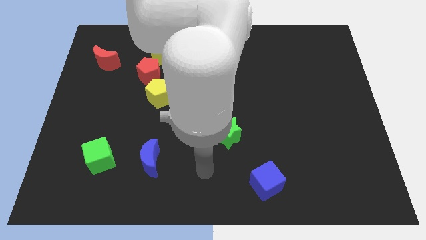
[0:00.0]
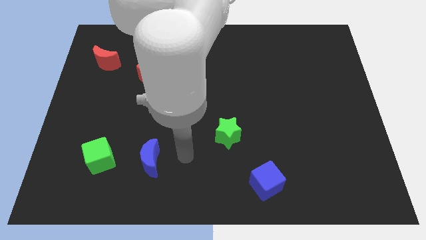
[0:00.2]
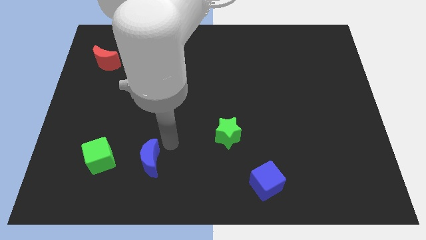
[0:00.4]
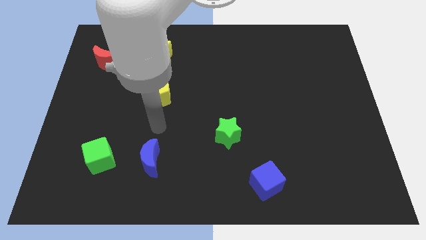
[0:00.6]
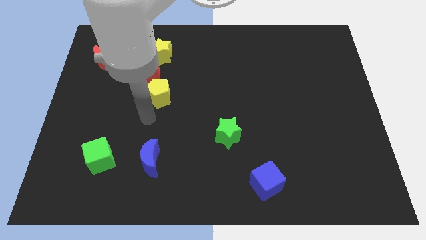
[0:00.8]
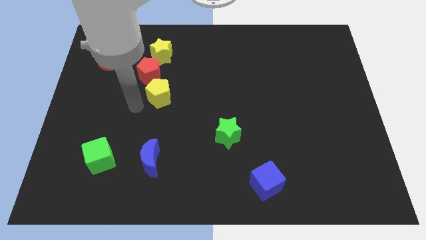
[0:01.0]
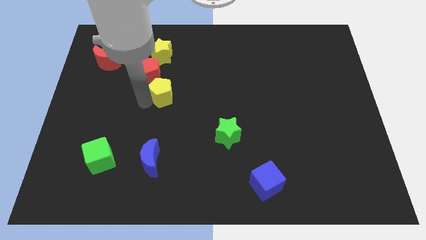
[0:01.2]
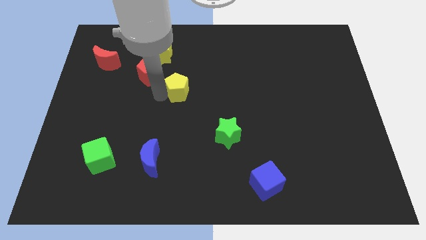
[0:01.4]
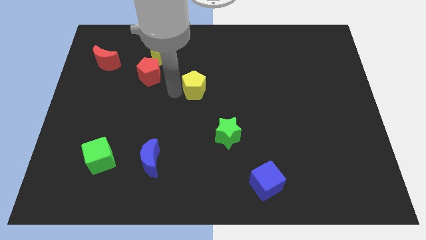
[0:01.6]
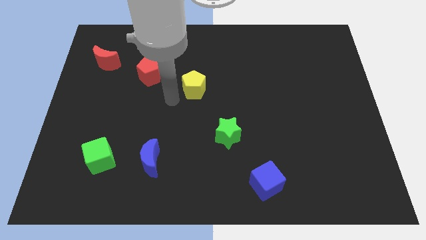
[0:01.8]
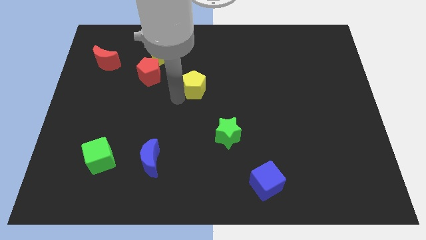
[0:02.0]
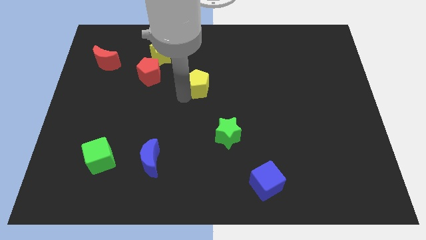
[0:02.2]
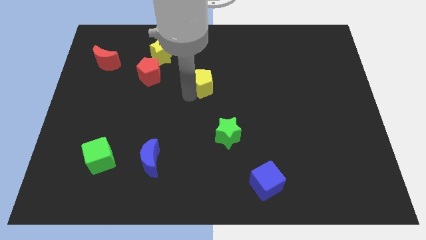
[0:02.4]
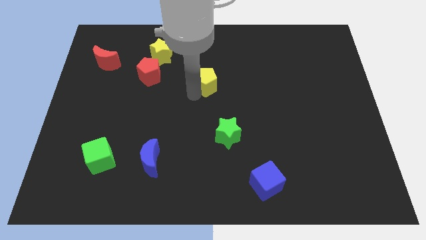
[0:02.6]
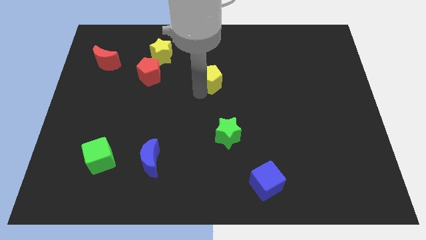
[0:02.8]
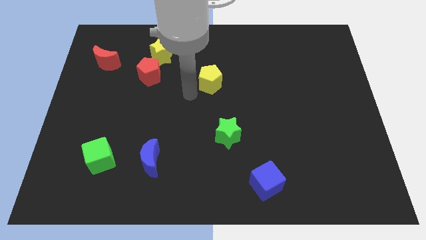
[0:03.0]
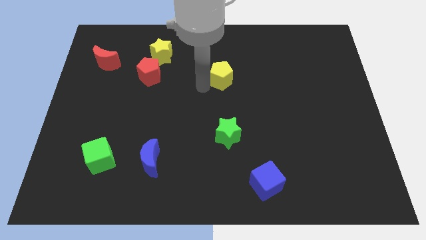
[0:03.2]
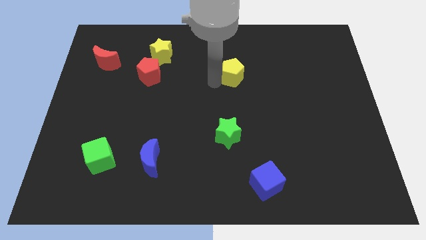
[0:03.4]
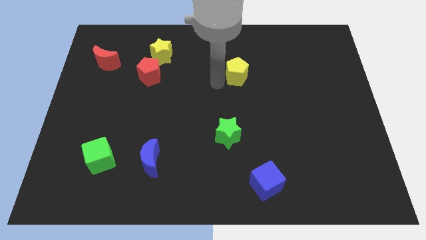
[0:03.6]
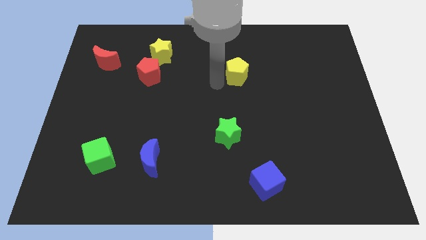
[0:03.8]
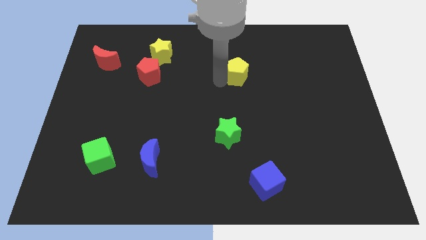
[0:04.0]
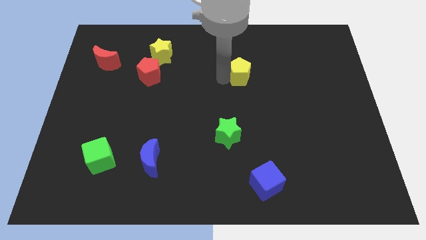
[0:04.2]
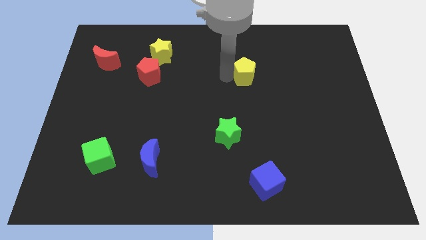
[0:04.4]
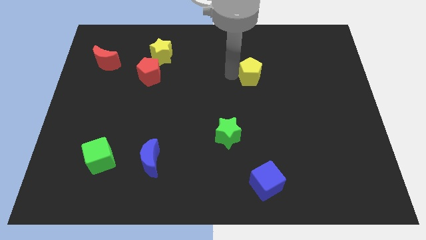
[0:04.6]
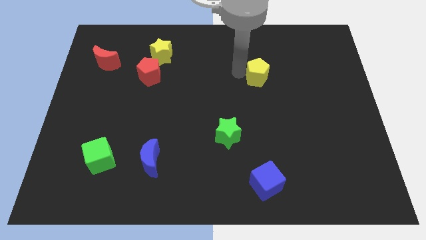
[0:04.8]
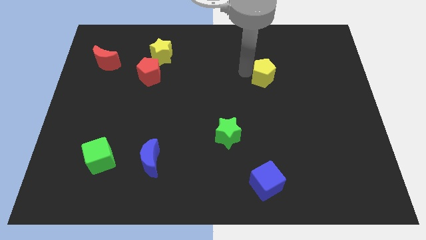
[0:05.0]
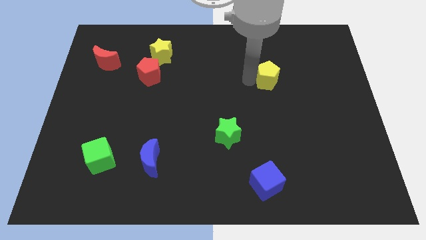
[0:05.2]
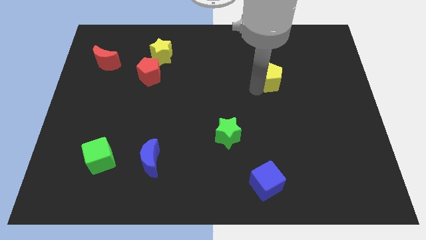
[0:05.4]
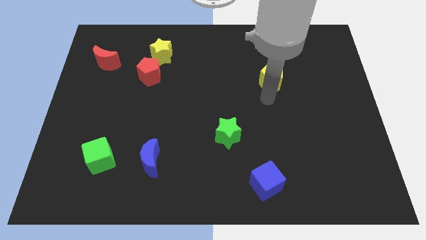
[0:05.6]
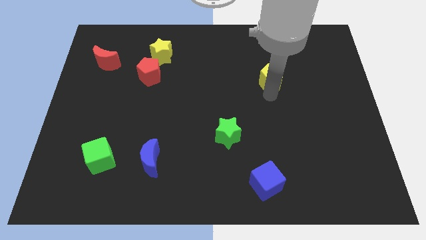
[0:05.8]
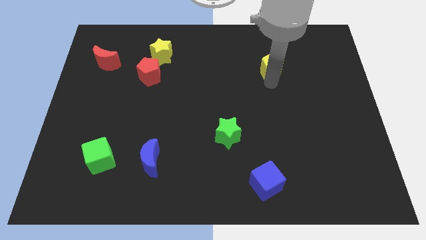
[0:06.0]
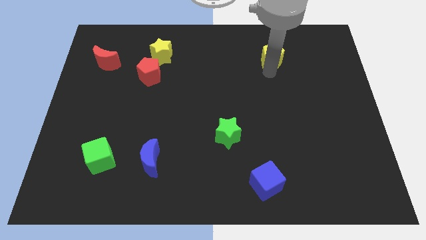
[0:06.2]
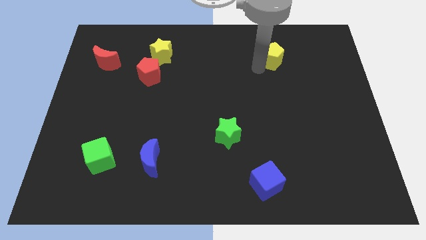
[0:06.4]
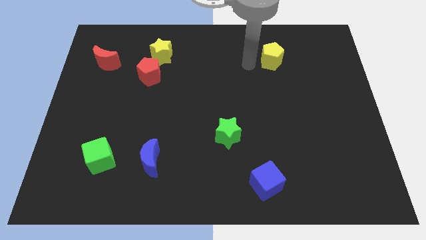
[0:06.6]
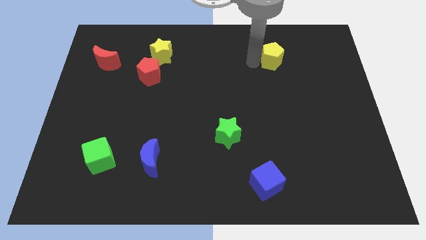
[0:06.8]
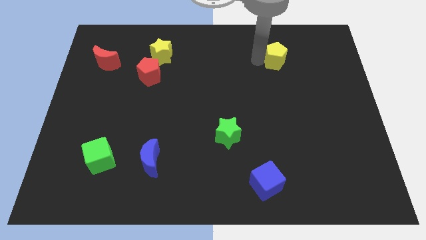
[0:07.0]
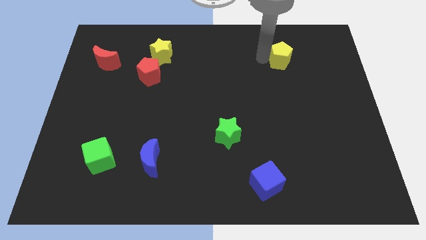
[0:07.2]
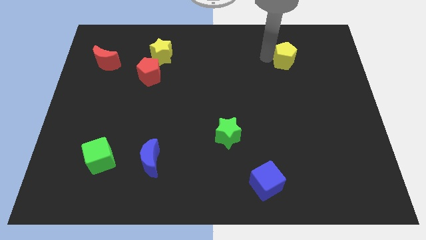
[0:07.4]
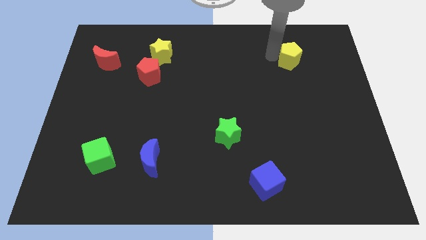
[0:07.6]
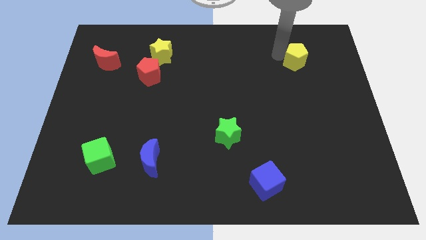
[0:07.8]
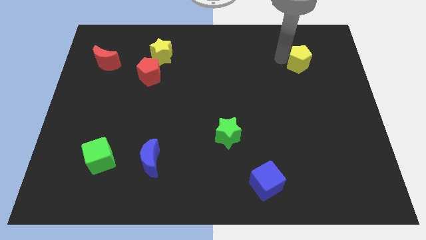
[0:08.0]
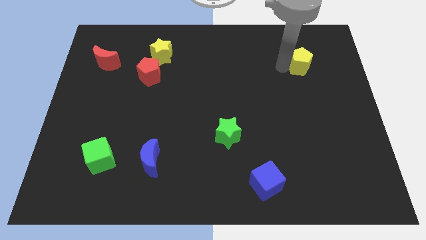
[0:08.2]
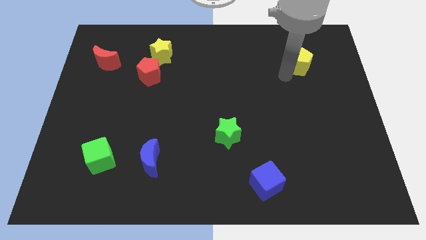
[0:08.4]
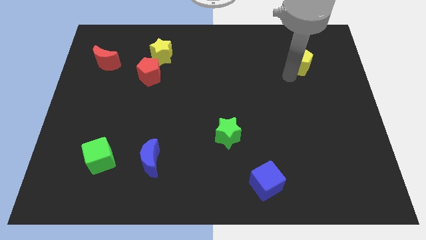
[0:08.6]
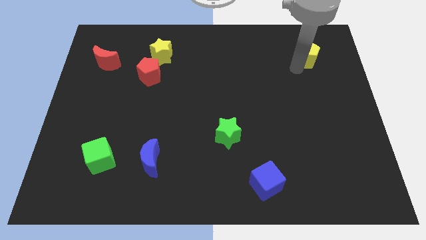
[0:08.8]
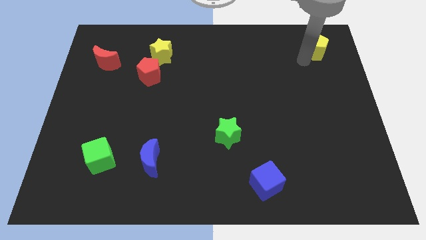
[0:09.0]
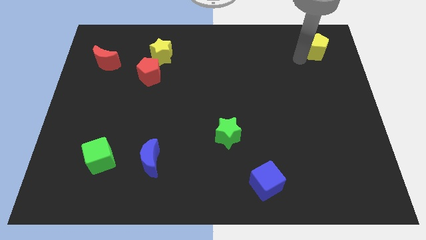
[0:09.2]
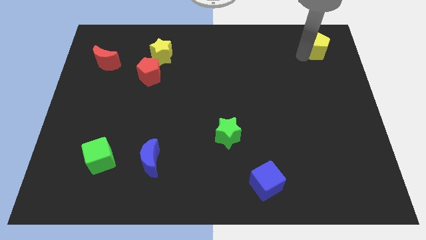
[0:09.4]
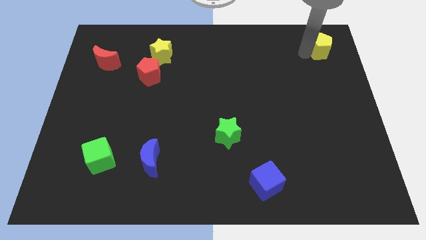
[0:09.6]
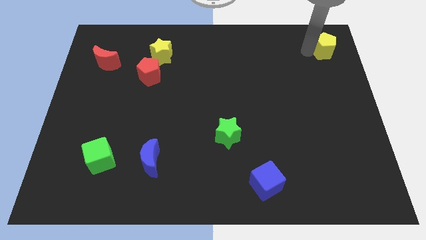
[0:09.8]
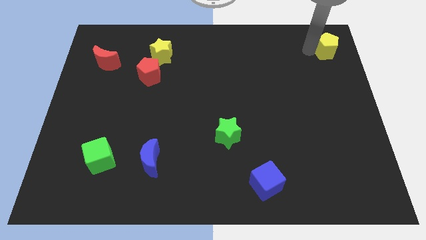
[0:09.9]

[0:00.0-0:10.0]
push the yellow pentagon to the upper right corner

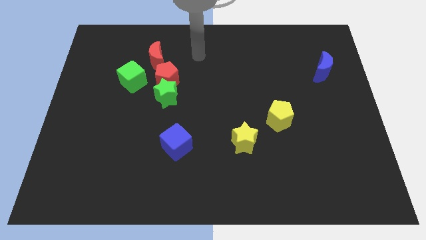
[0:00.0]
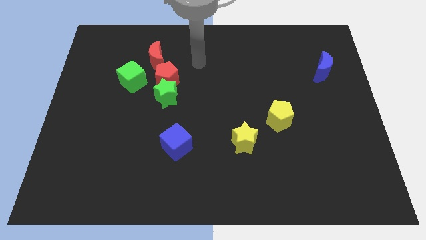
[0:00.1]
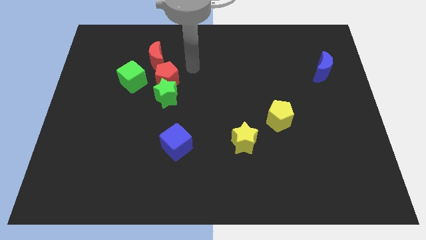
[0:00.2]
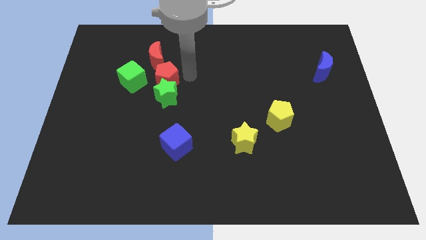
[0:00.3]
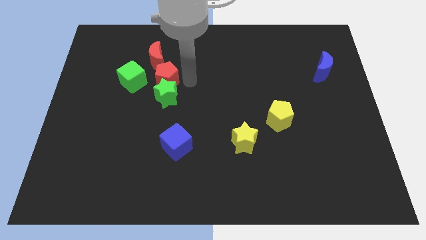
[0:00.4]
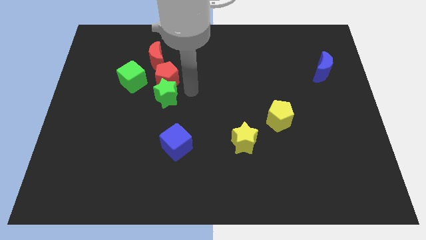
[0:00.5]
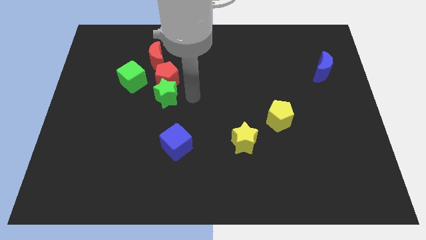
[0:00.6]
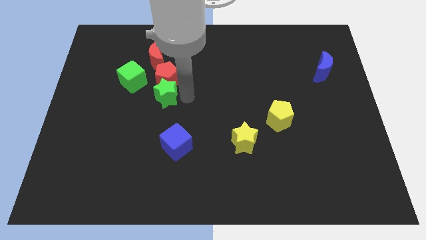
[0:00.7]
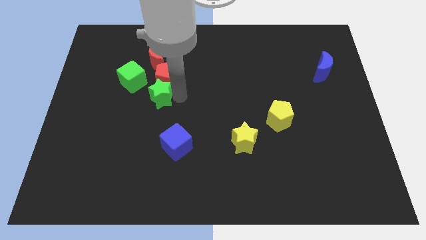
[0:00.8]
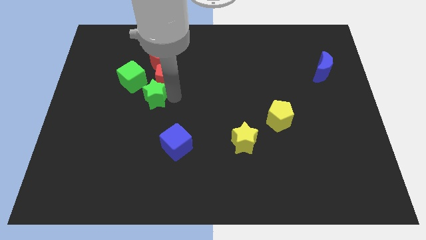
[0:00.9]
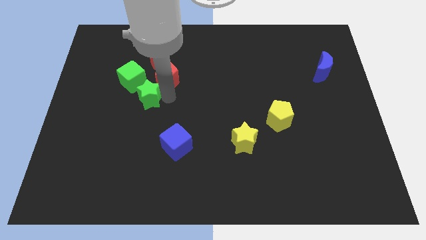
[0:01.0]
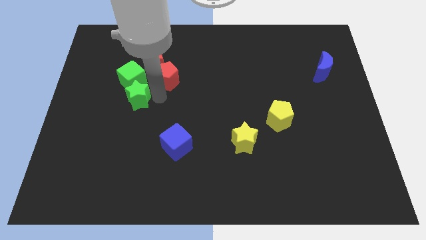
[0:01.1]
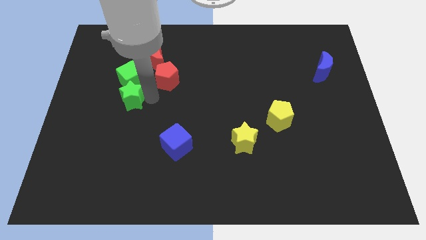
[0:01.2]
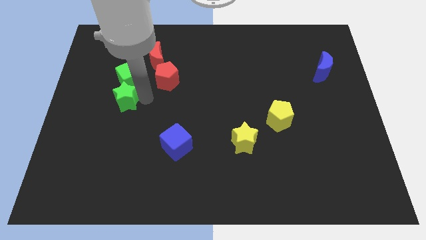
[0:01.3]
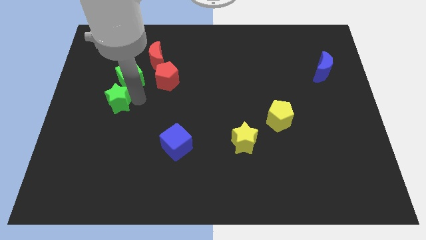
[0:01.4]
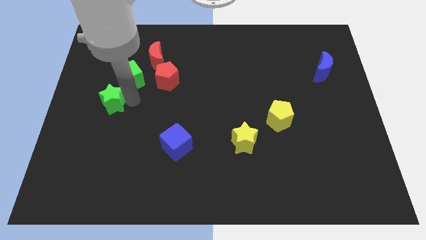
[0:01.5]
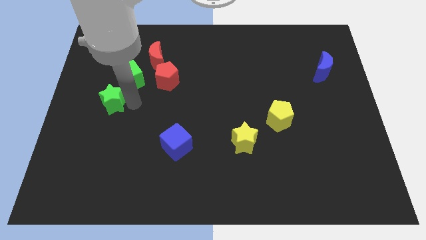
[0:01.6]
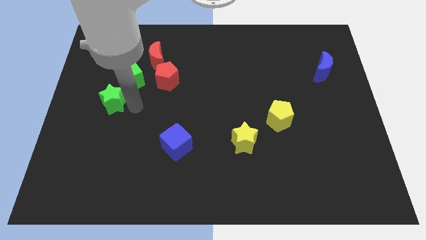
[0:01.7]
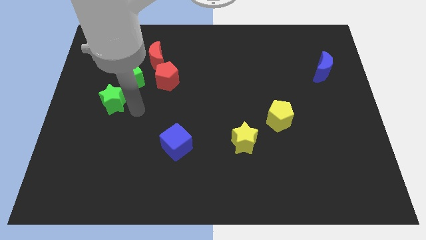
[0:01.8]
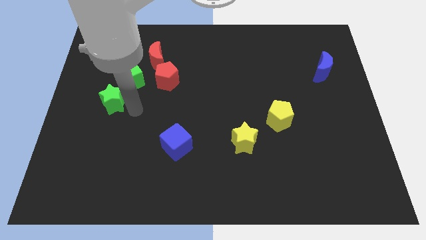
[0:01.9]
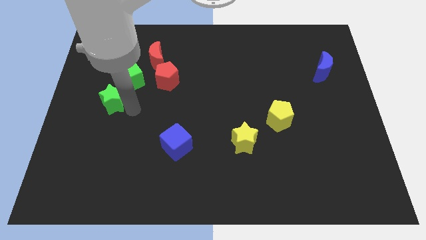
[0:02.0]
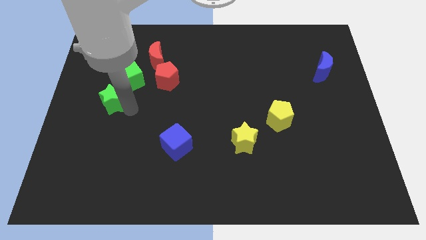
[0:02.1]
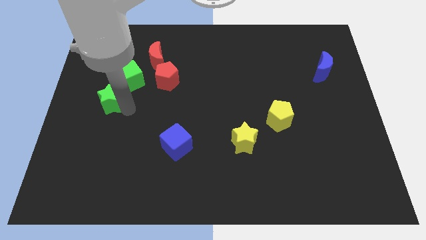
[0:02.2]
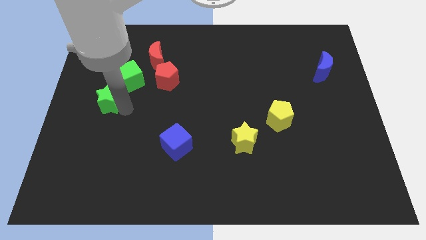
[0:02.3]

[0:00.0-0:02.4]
move the green star to the left side

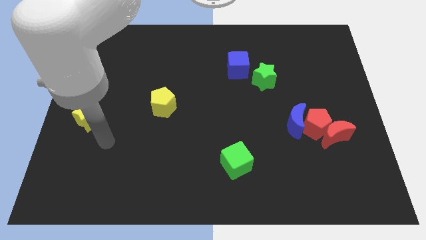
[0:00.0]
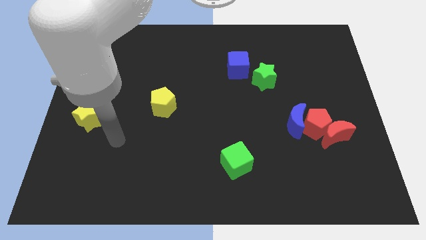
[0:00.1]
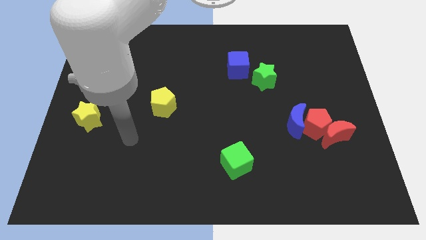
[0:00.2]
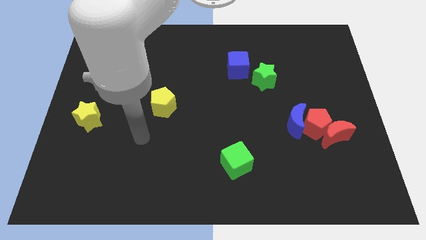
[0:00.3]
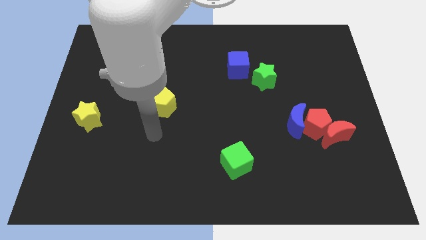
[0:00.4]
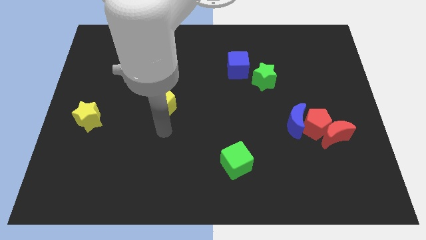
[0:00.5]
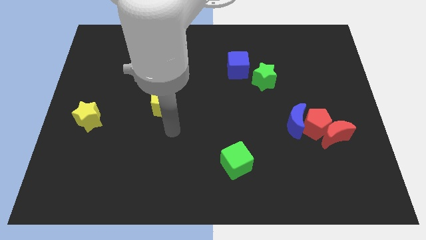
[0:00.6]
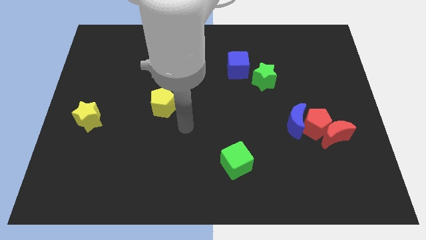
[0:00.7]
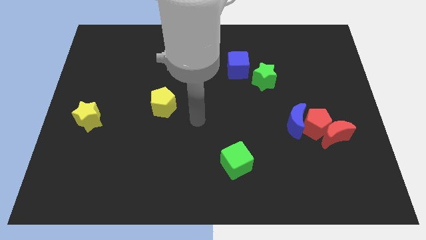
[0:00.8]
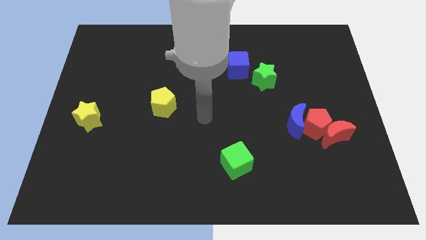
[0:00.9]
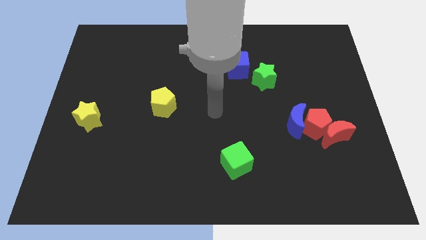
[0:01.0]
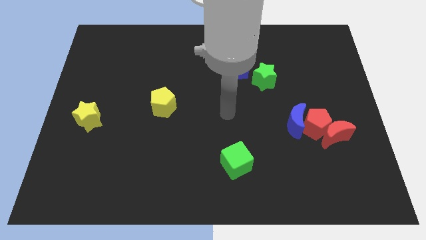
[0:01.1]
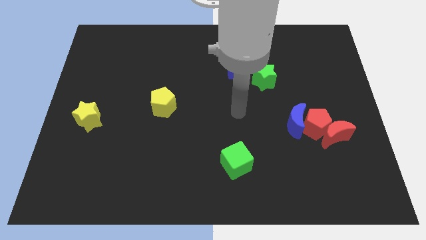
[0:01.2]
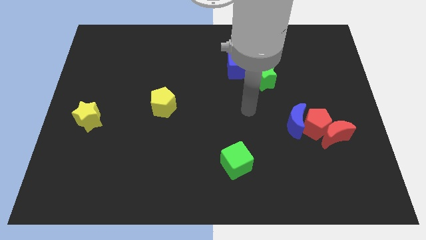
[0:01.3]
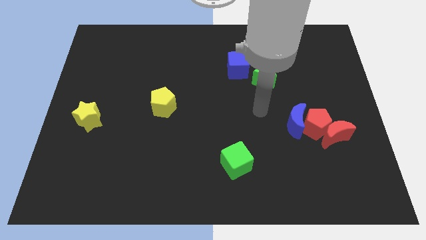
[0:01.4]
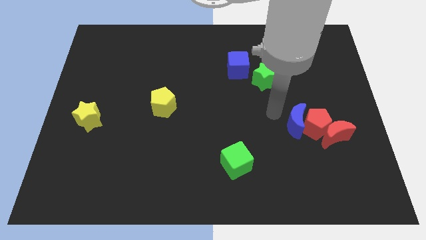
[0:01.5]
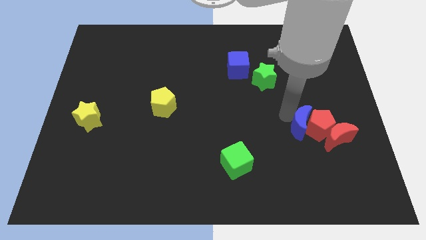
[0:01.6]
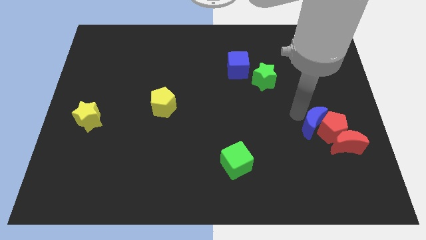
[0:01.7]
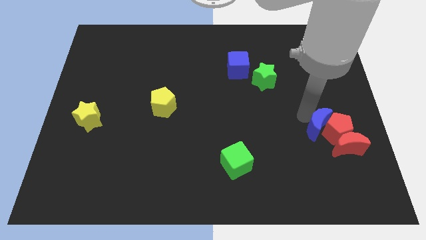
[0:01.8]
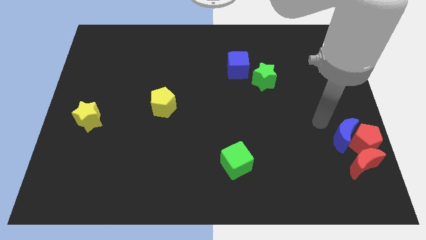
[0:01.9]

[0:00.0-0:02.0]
push the red moon to the bottom right of the board
